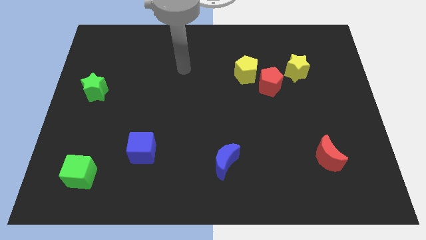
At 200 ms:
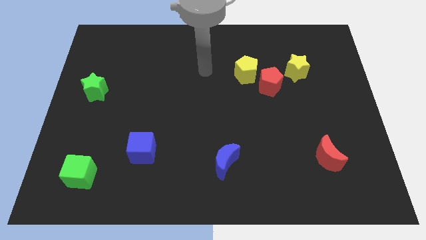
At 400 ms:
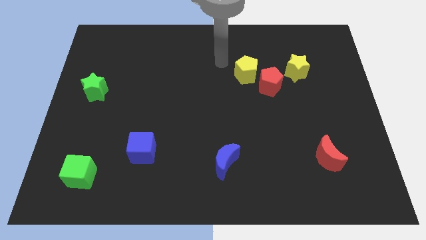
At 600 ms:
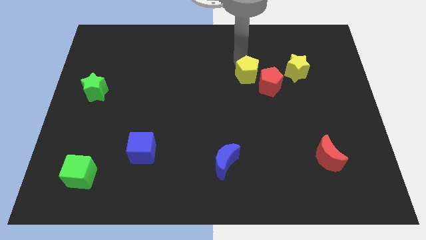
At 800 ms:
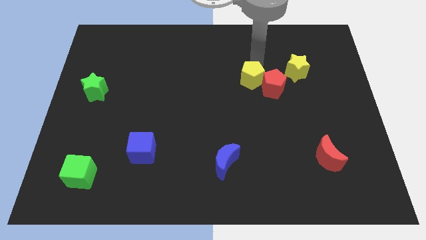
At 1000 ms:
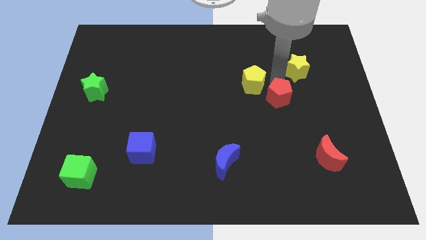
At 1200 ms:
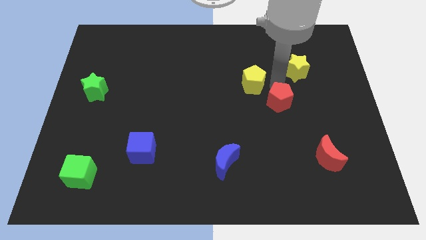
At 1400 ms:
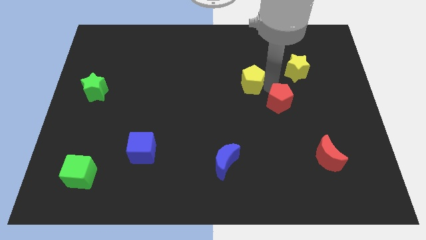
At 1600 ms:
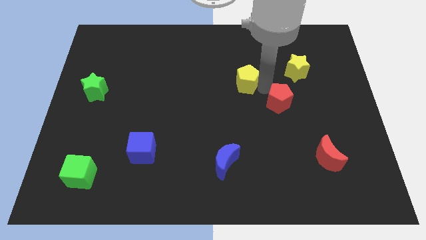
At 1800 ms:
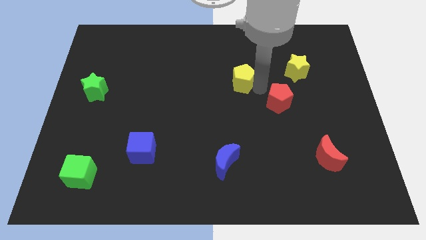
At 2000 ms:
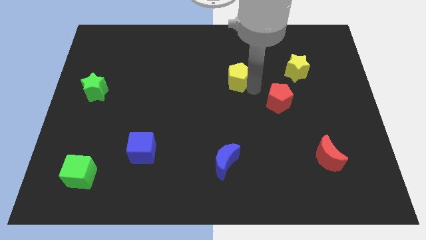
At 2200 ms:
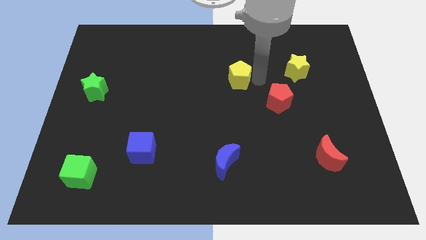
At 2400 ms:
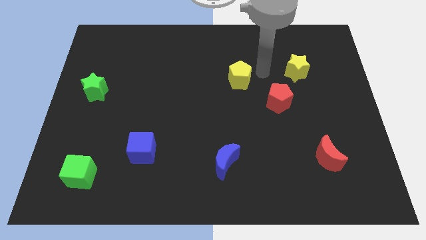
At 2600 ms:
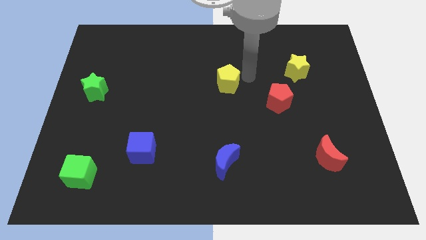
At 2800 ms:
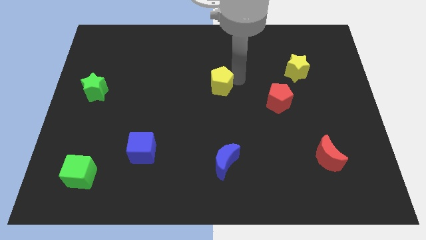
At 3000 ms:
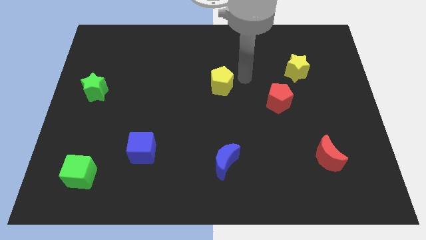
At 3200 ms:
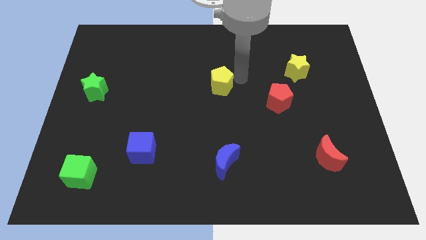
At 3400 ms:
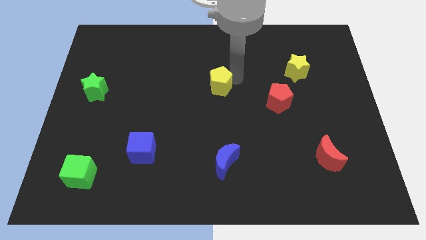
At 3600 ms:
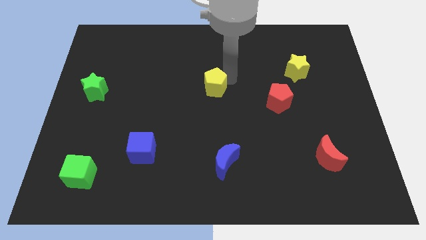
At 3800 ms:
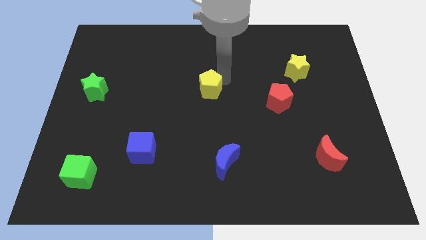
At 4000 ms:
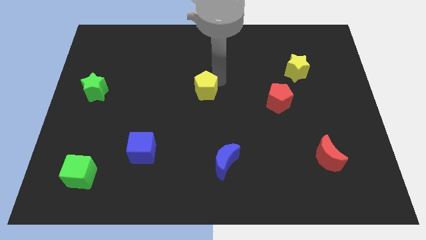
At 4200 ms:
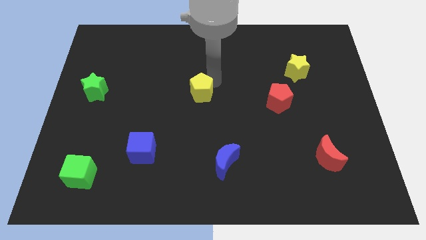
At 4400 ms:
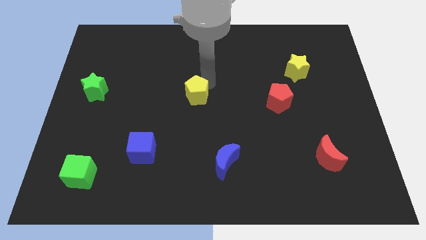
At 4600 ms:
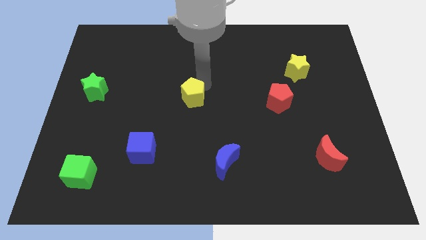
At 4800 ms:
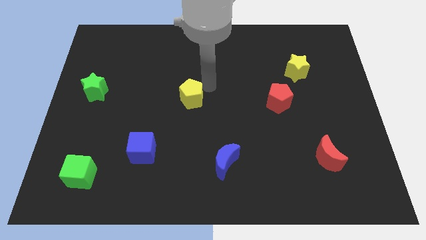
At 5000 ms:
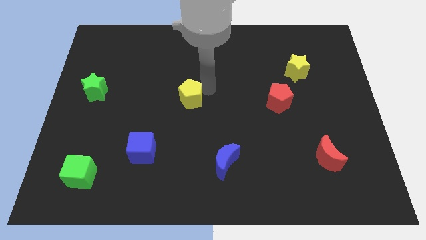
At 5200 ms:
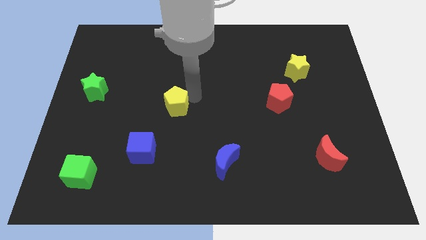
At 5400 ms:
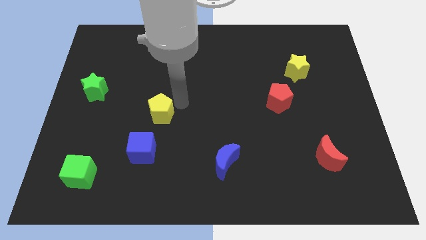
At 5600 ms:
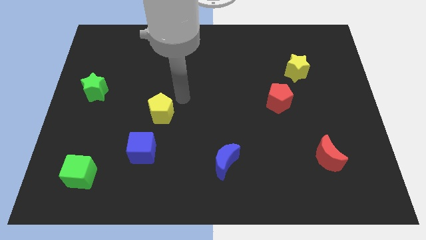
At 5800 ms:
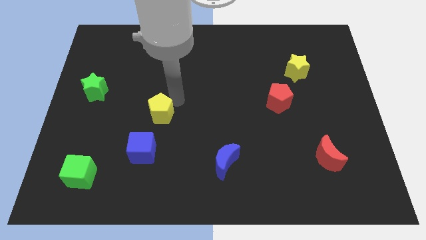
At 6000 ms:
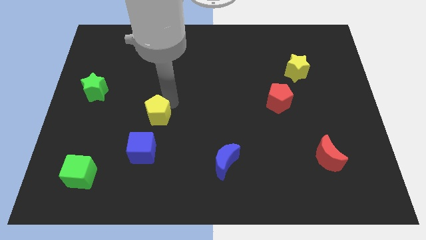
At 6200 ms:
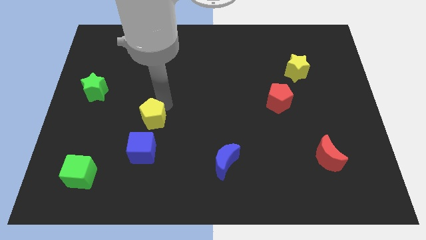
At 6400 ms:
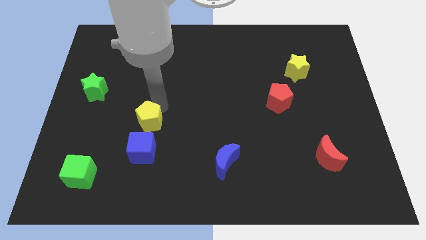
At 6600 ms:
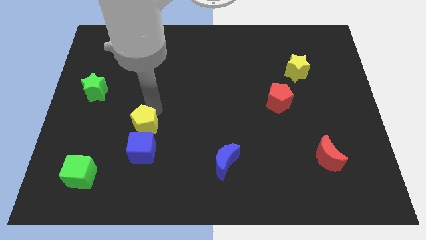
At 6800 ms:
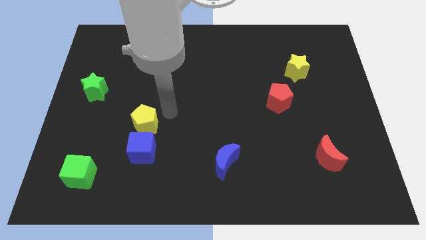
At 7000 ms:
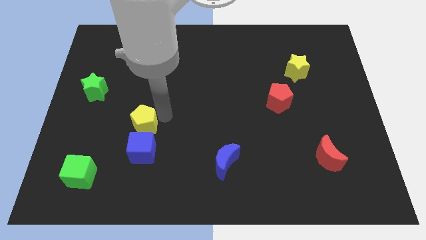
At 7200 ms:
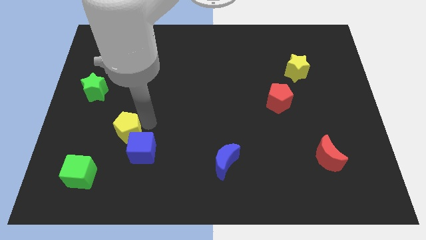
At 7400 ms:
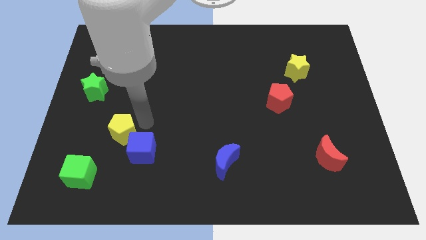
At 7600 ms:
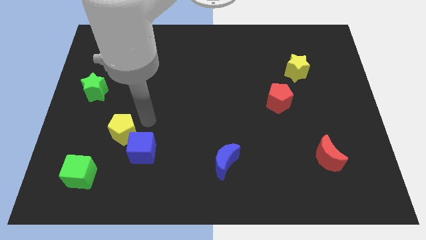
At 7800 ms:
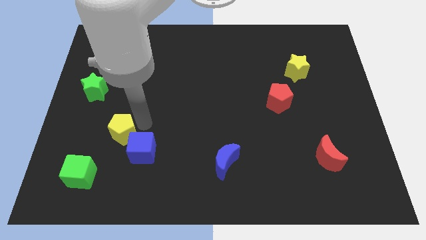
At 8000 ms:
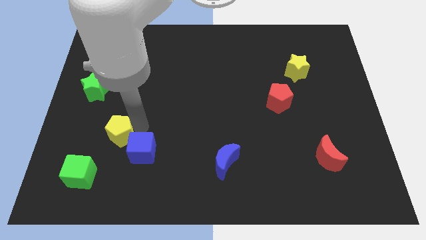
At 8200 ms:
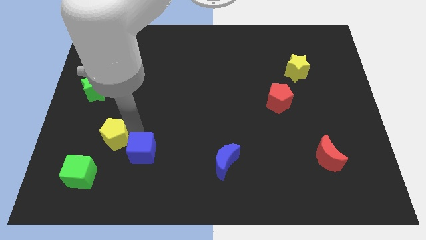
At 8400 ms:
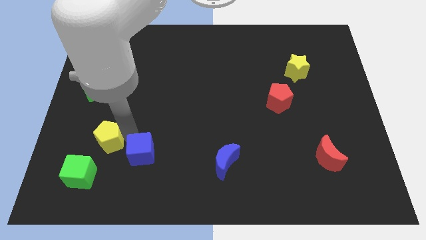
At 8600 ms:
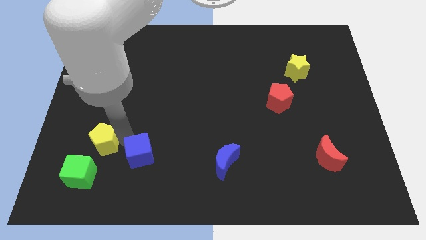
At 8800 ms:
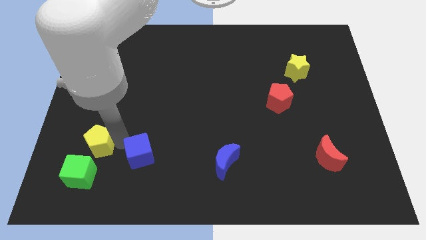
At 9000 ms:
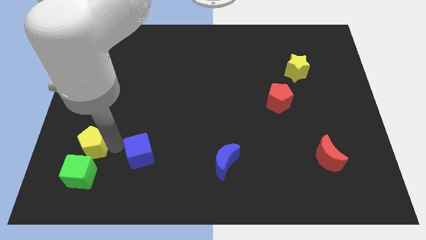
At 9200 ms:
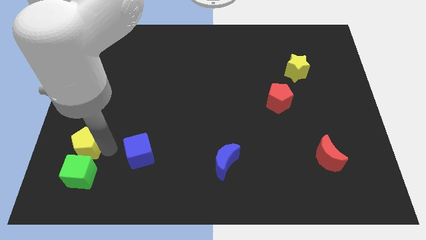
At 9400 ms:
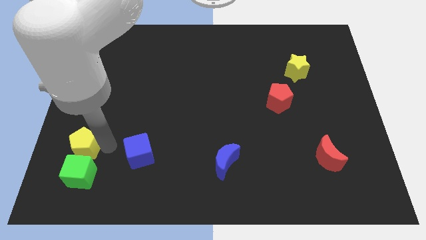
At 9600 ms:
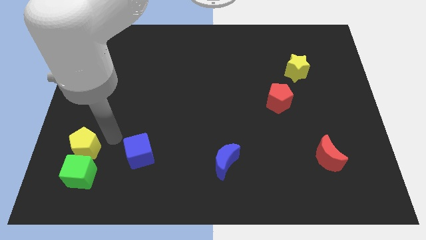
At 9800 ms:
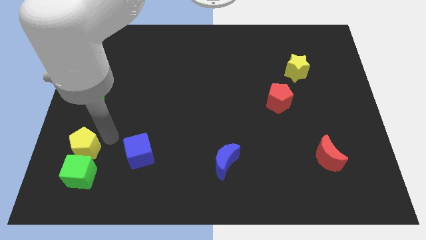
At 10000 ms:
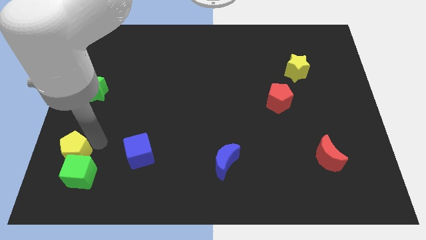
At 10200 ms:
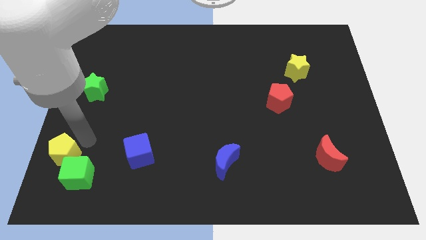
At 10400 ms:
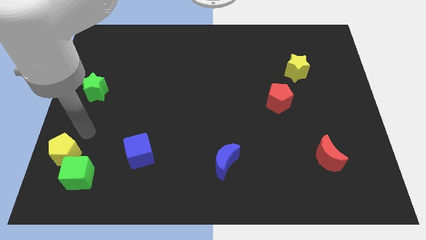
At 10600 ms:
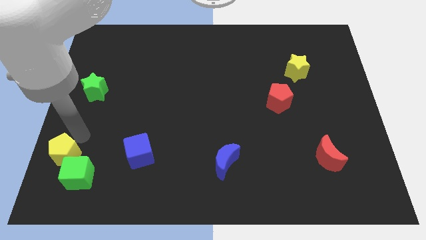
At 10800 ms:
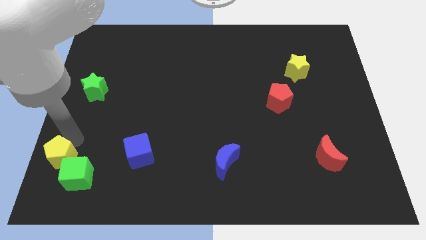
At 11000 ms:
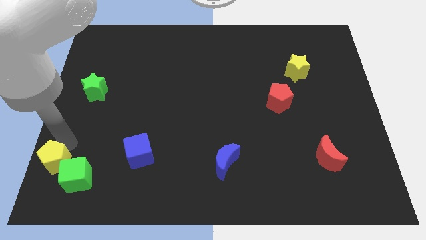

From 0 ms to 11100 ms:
move the yellow pentagon to the bottom left of the board

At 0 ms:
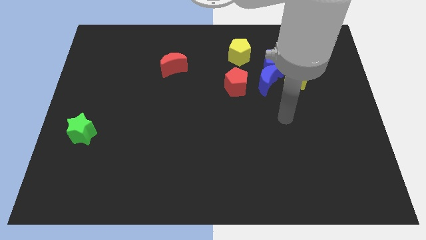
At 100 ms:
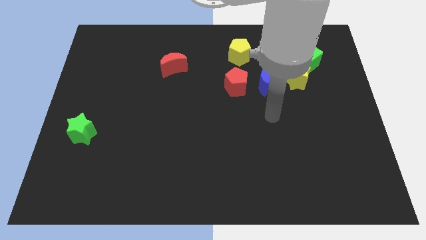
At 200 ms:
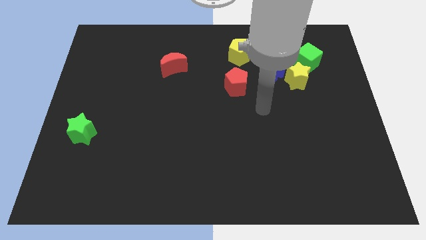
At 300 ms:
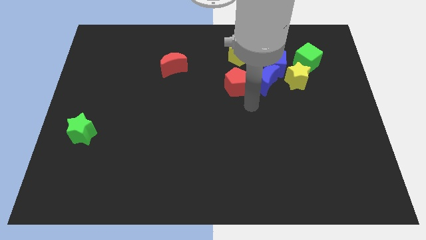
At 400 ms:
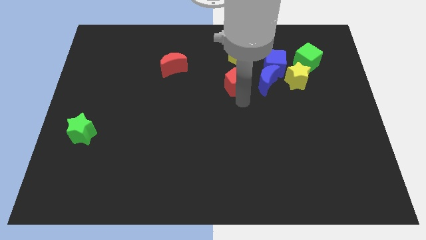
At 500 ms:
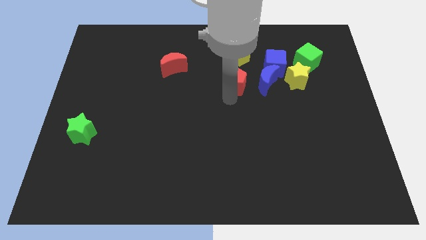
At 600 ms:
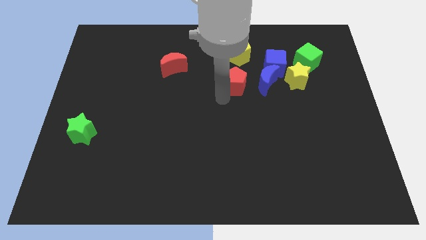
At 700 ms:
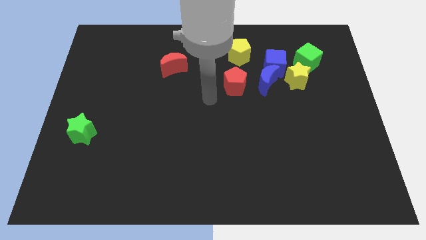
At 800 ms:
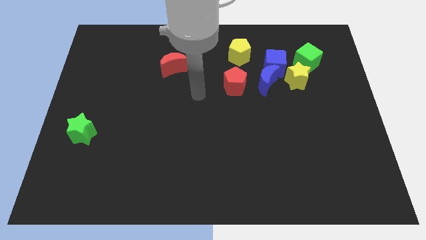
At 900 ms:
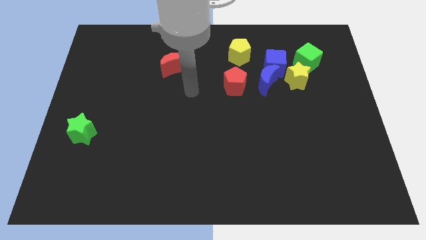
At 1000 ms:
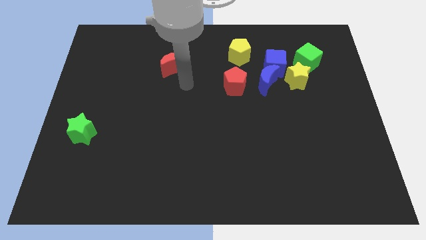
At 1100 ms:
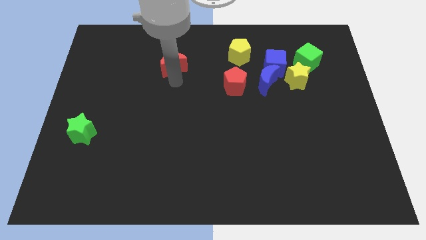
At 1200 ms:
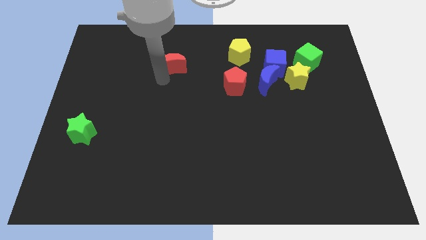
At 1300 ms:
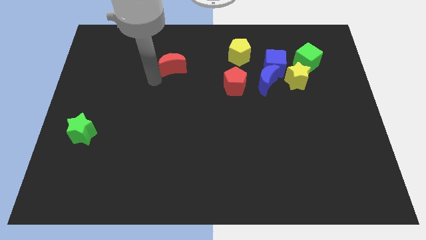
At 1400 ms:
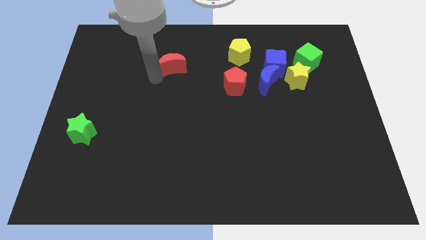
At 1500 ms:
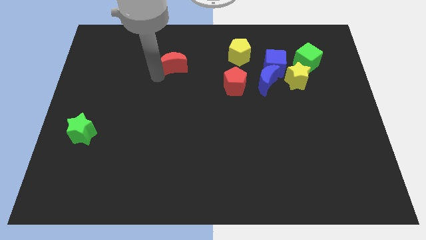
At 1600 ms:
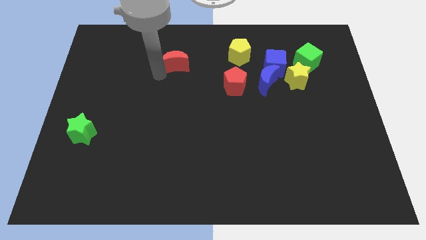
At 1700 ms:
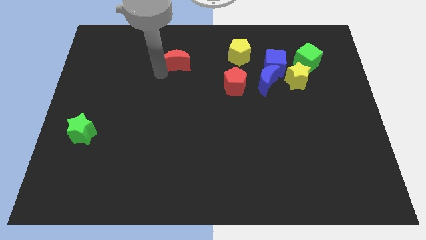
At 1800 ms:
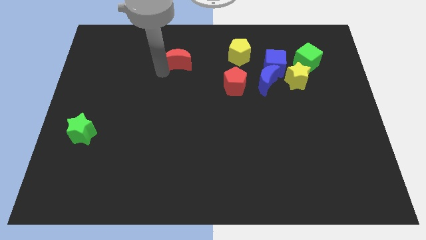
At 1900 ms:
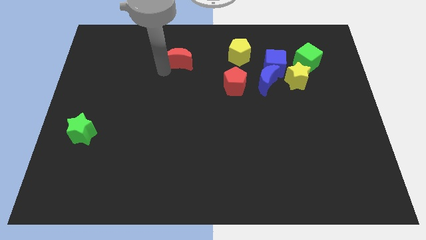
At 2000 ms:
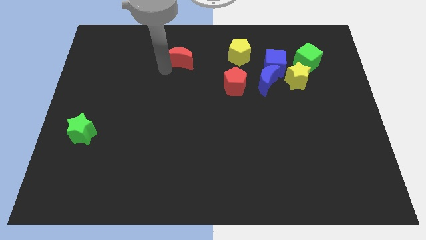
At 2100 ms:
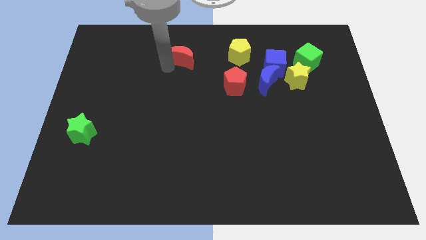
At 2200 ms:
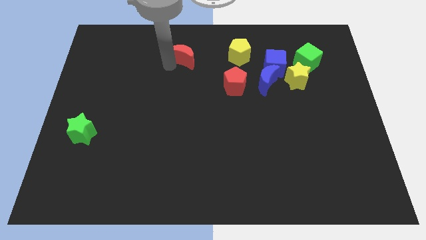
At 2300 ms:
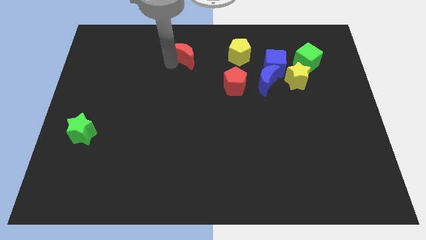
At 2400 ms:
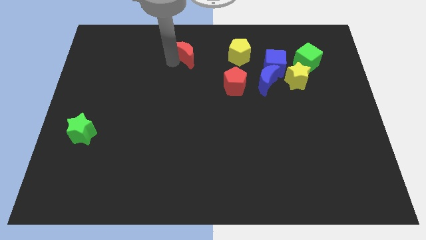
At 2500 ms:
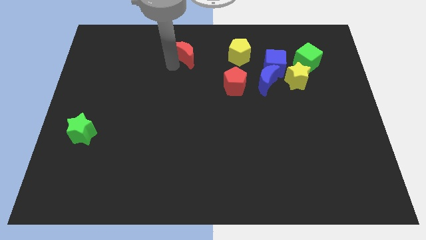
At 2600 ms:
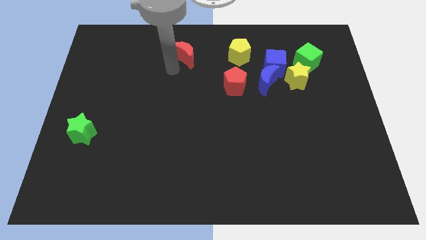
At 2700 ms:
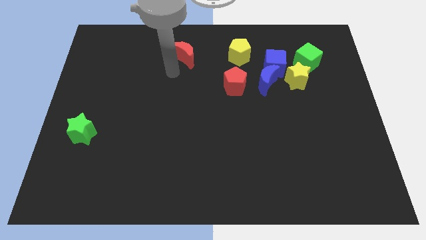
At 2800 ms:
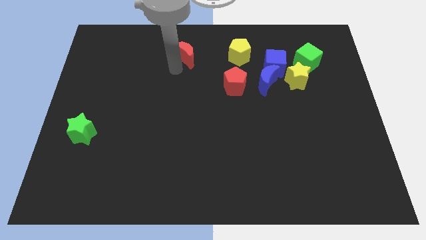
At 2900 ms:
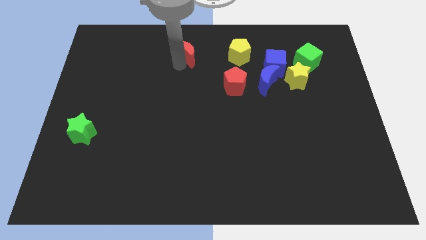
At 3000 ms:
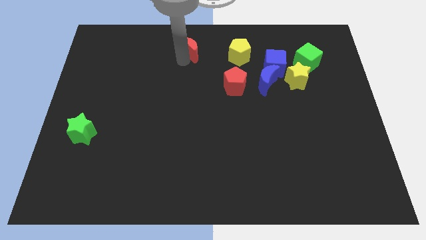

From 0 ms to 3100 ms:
slide the red moon to the top
